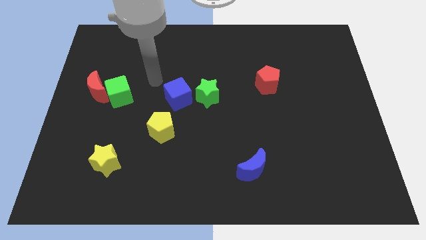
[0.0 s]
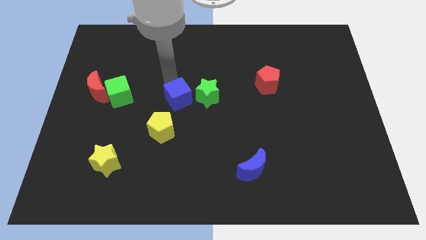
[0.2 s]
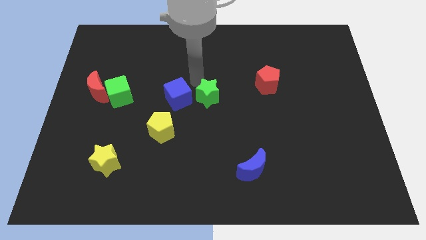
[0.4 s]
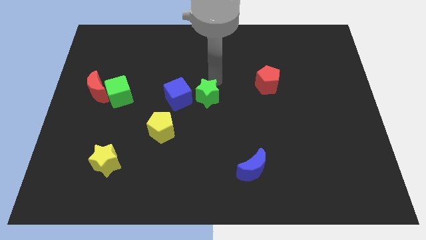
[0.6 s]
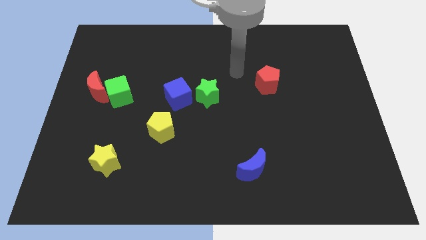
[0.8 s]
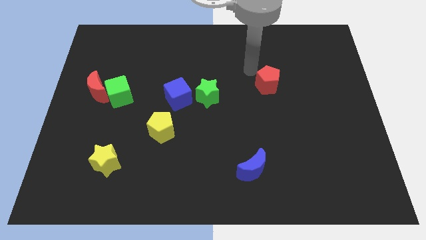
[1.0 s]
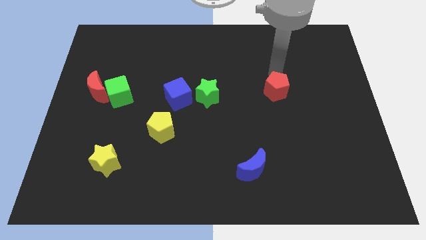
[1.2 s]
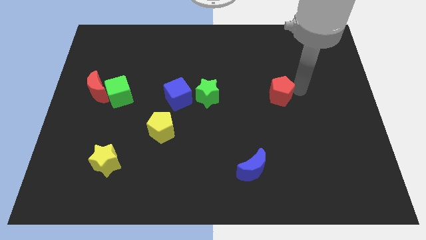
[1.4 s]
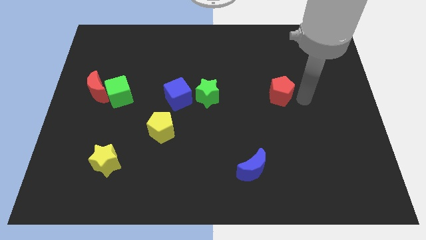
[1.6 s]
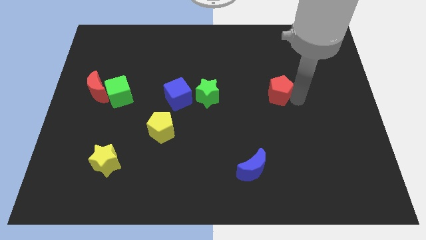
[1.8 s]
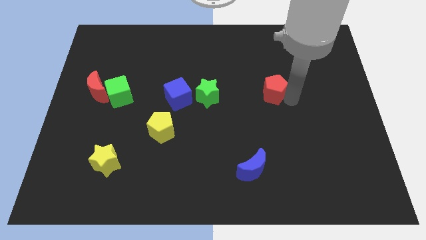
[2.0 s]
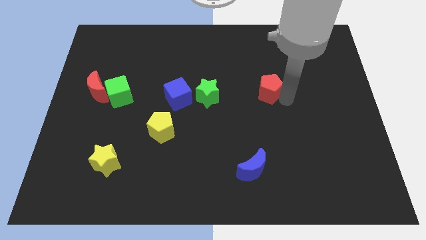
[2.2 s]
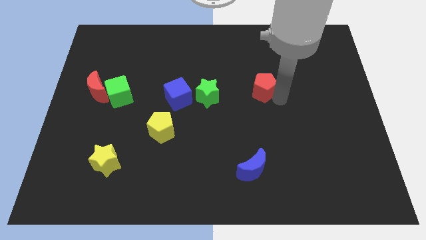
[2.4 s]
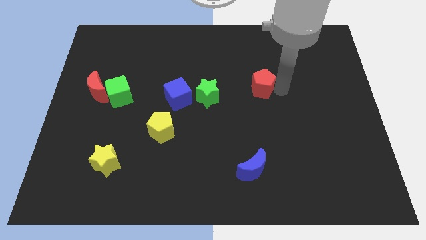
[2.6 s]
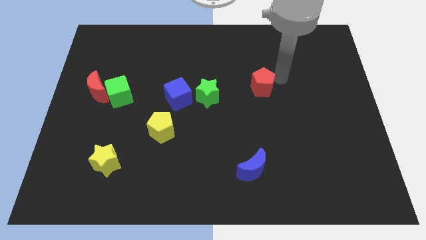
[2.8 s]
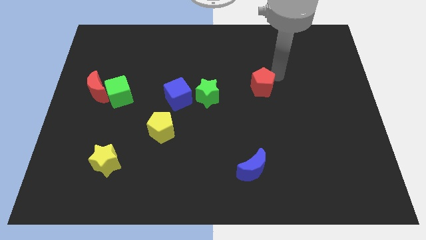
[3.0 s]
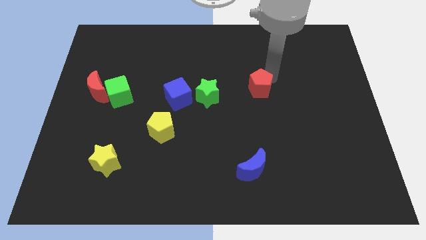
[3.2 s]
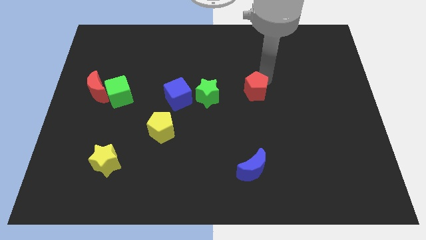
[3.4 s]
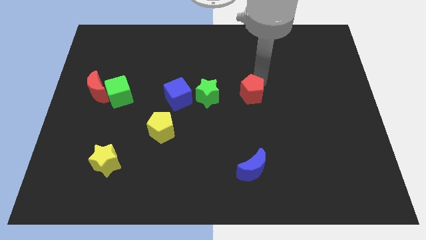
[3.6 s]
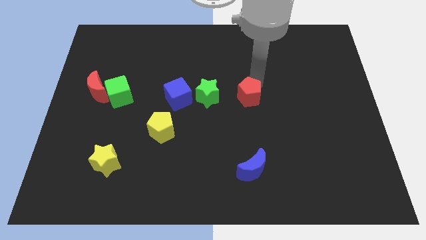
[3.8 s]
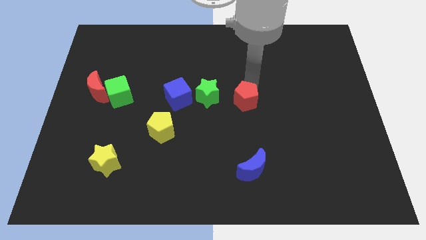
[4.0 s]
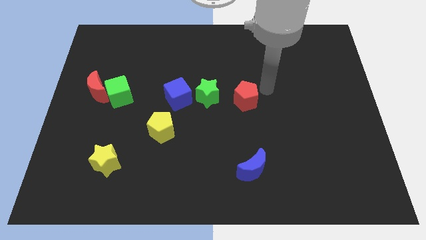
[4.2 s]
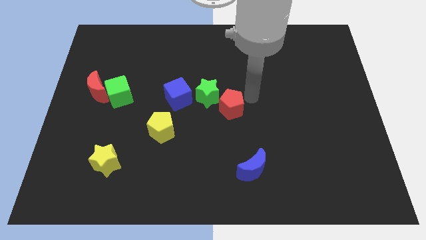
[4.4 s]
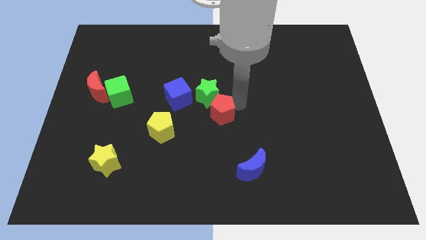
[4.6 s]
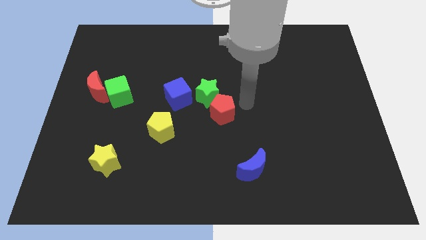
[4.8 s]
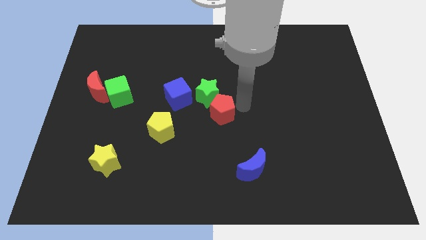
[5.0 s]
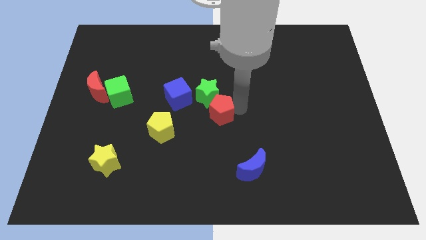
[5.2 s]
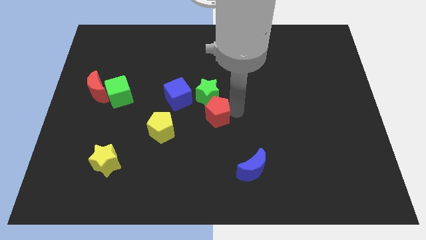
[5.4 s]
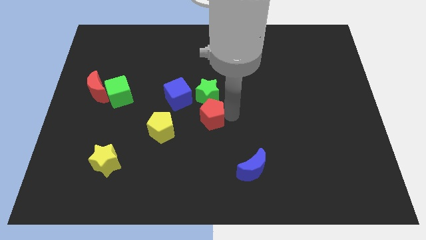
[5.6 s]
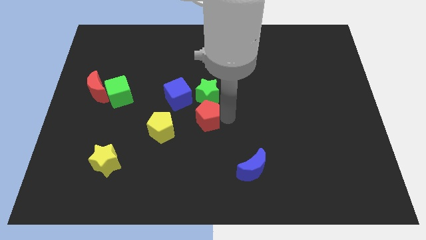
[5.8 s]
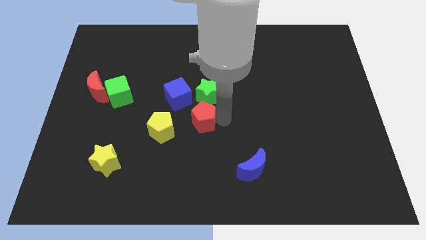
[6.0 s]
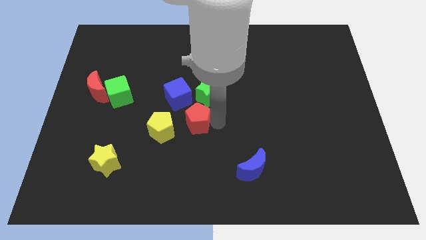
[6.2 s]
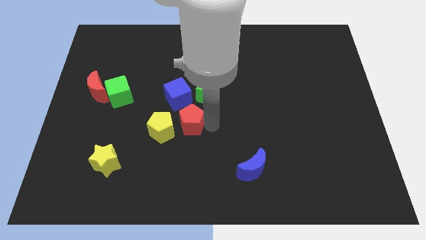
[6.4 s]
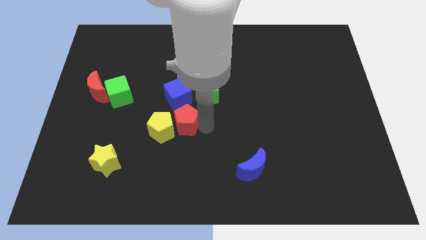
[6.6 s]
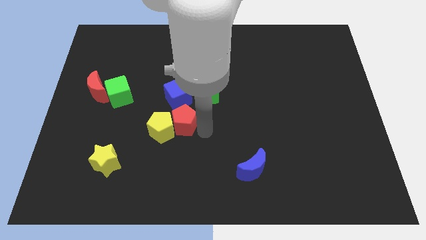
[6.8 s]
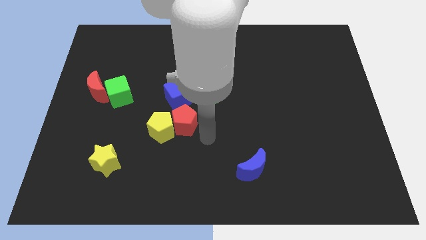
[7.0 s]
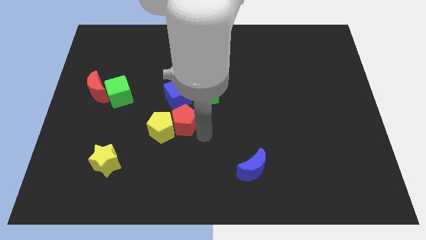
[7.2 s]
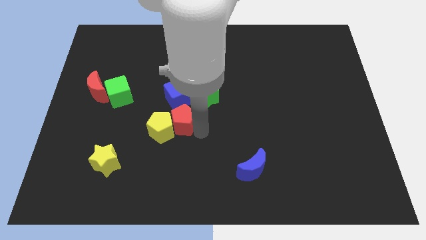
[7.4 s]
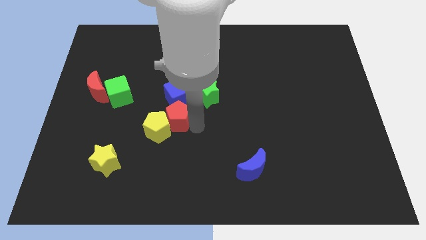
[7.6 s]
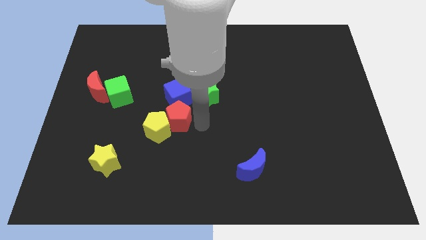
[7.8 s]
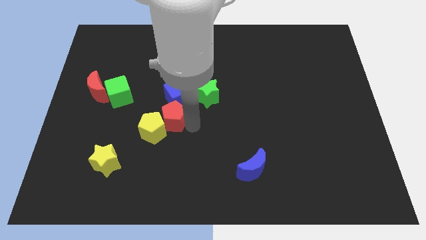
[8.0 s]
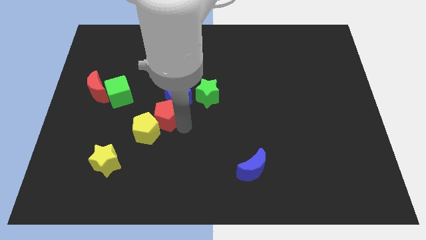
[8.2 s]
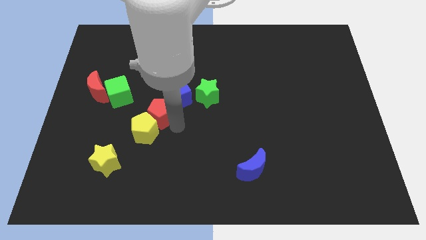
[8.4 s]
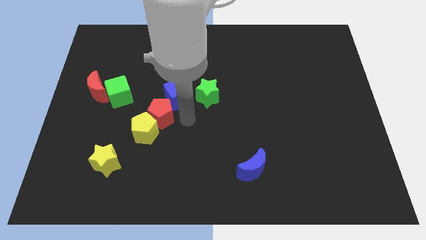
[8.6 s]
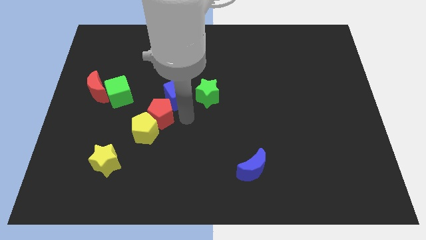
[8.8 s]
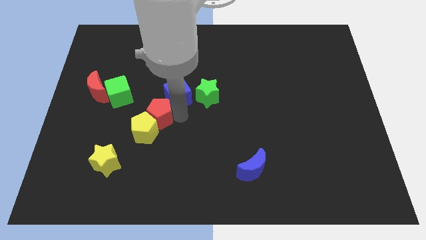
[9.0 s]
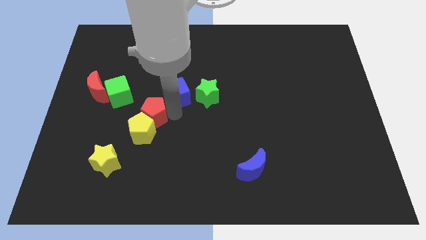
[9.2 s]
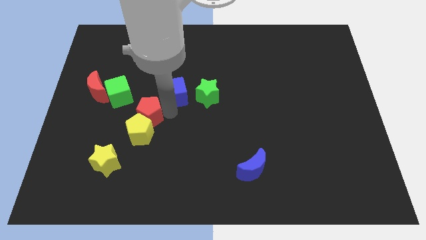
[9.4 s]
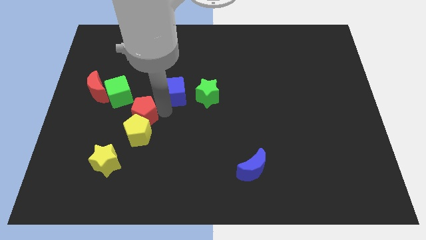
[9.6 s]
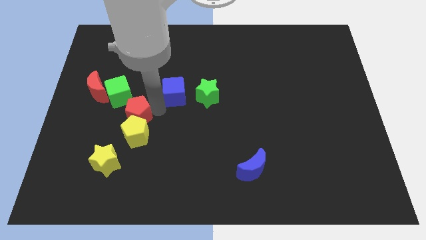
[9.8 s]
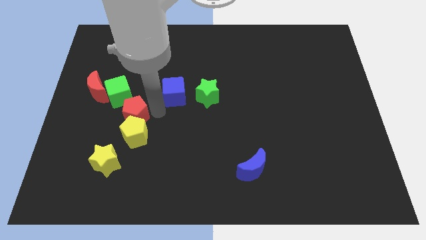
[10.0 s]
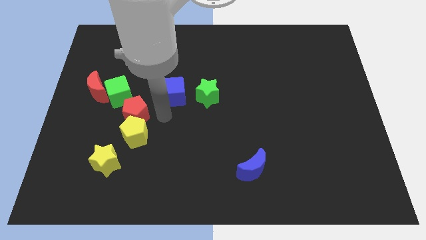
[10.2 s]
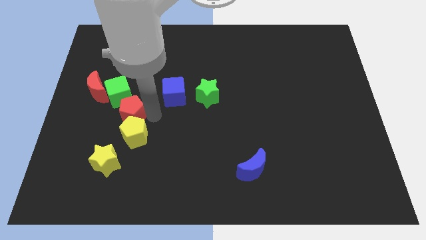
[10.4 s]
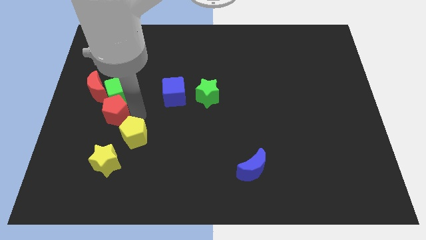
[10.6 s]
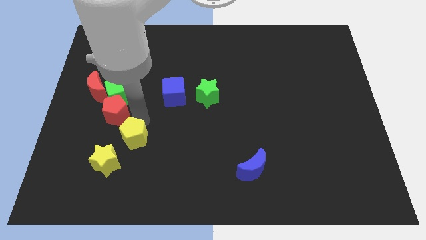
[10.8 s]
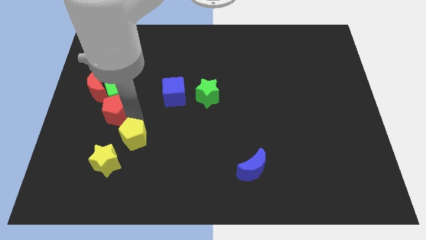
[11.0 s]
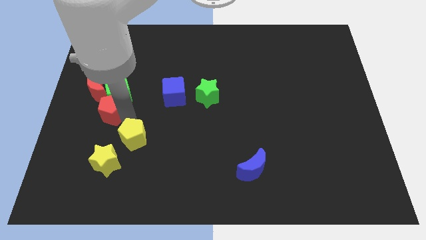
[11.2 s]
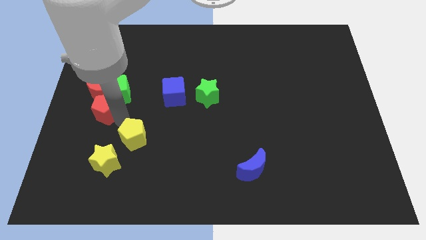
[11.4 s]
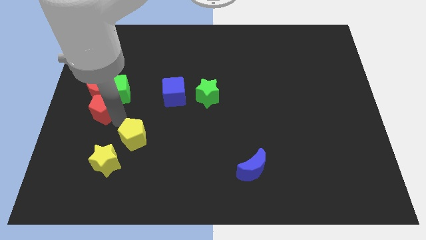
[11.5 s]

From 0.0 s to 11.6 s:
slide the red pentagon to the center left

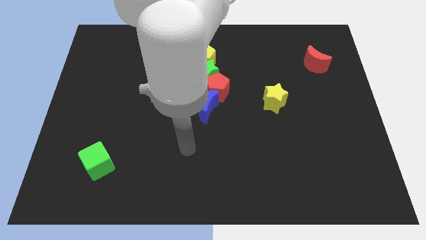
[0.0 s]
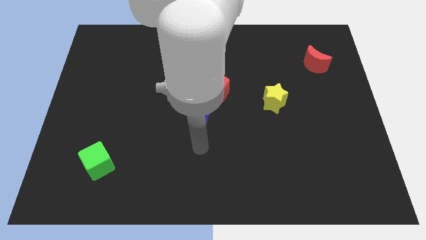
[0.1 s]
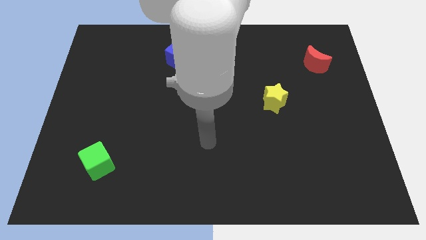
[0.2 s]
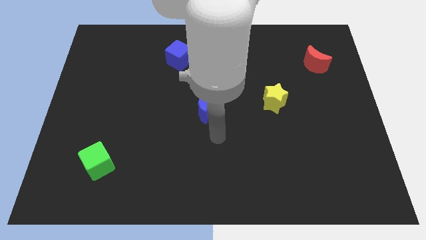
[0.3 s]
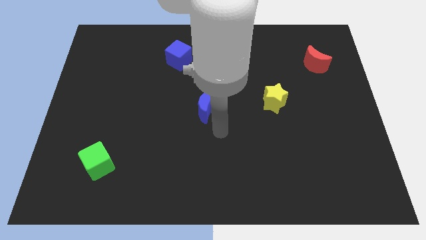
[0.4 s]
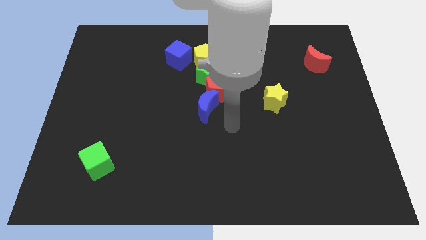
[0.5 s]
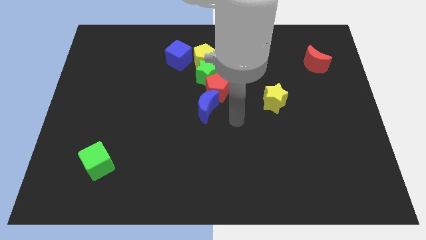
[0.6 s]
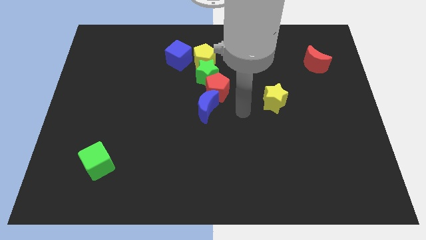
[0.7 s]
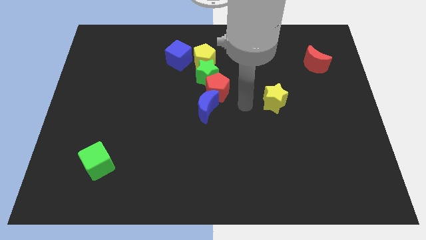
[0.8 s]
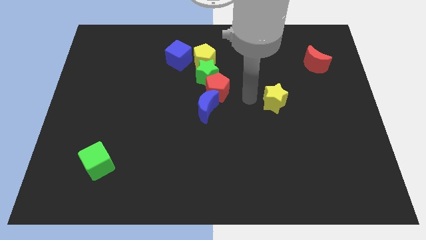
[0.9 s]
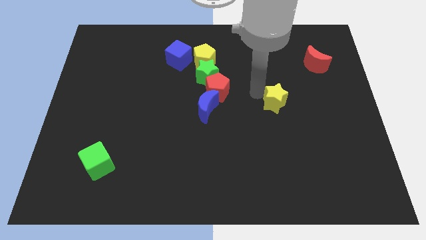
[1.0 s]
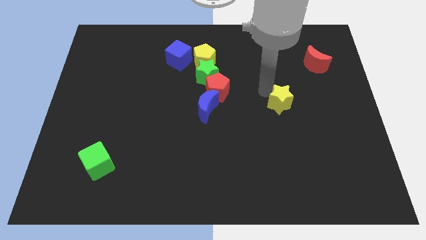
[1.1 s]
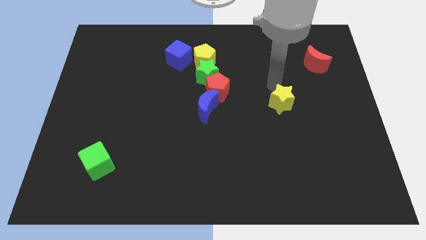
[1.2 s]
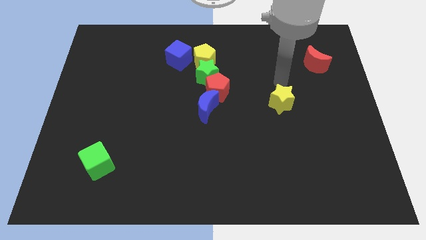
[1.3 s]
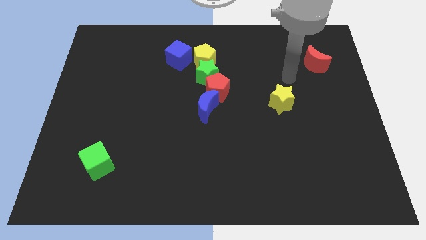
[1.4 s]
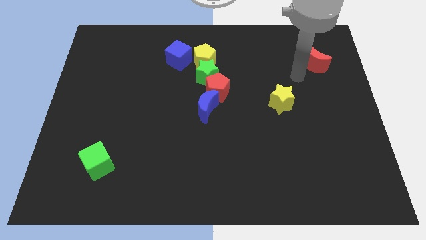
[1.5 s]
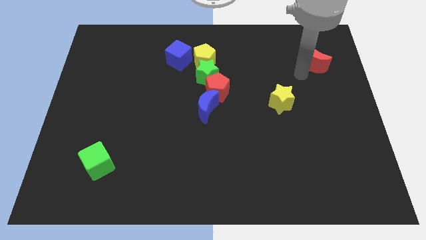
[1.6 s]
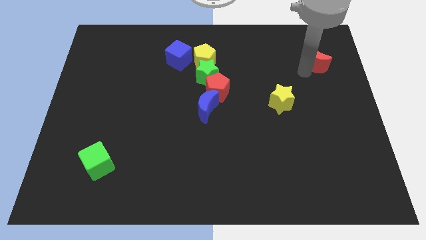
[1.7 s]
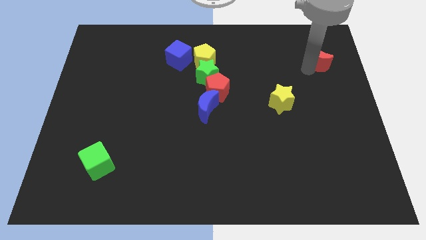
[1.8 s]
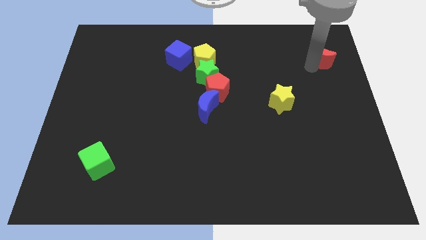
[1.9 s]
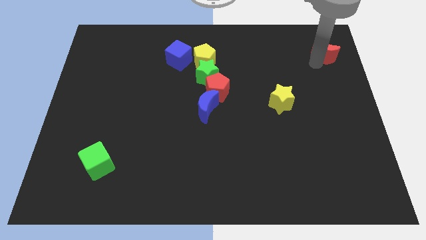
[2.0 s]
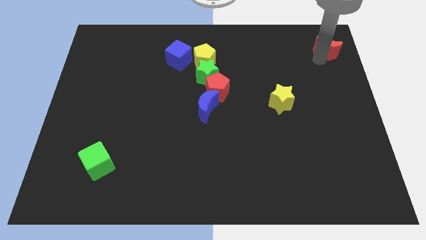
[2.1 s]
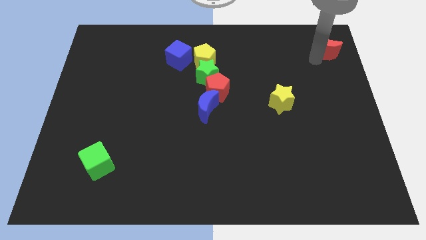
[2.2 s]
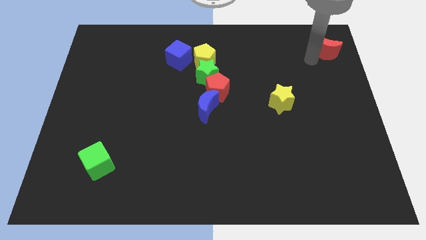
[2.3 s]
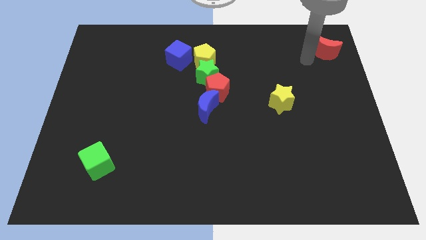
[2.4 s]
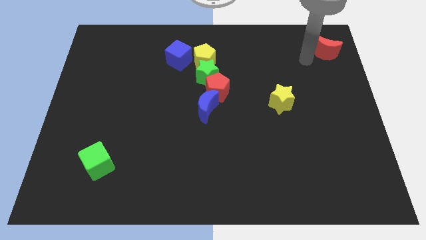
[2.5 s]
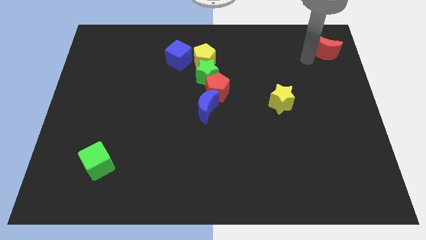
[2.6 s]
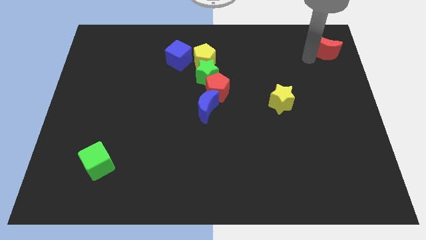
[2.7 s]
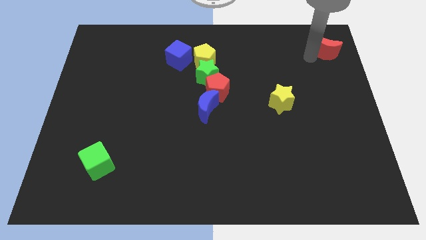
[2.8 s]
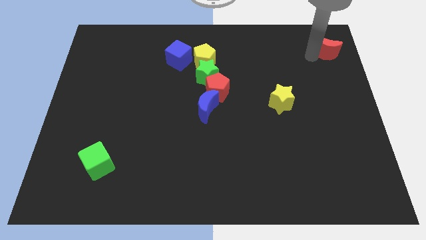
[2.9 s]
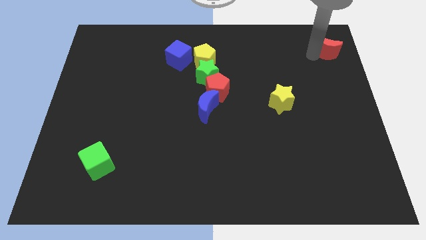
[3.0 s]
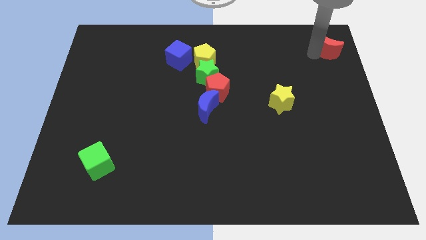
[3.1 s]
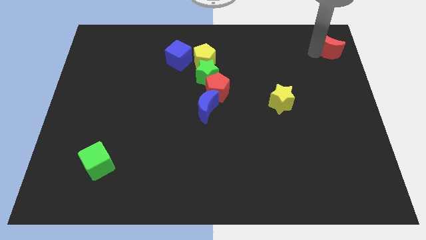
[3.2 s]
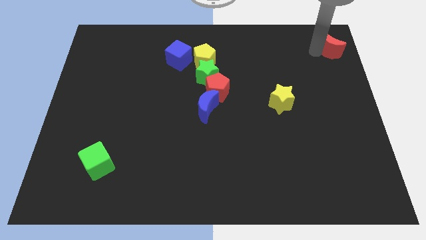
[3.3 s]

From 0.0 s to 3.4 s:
move the red moon to the top right corner
